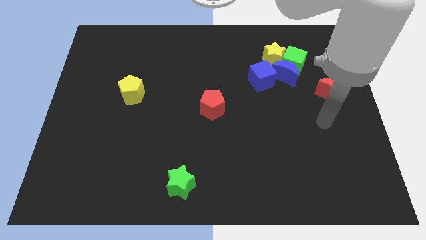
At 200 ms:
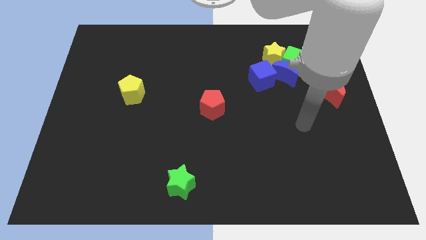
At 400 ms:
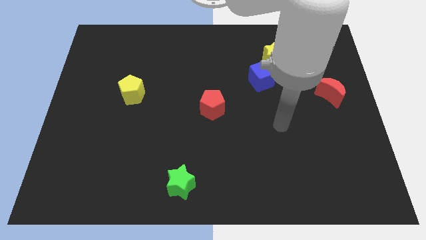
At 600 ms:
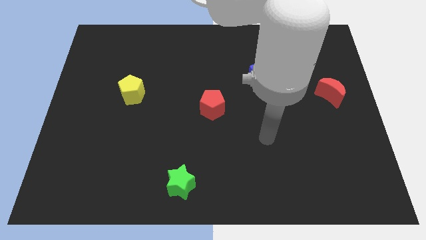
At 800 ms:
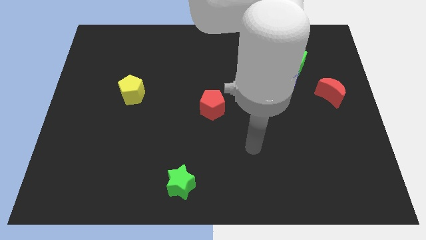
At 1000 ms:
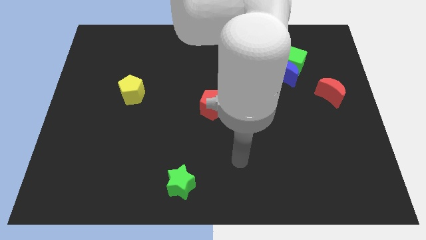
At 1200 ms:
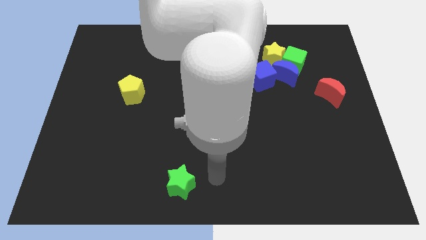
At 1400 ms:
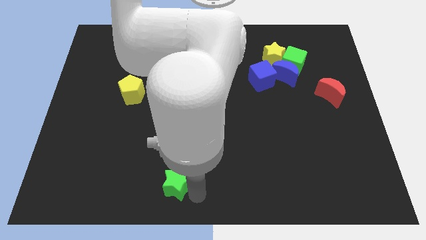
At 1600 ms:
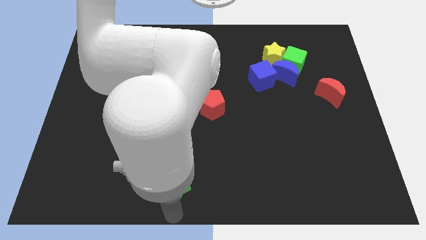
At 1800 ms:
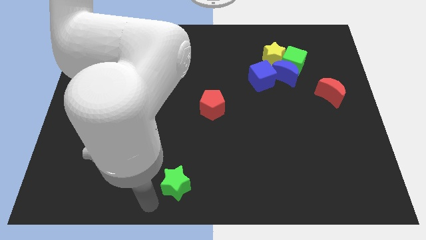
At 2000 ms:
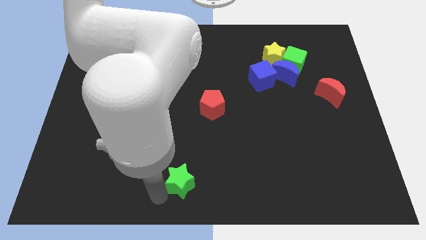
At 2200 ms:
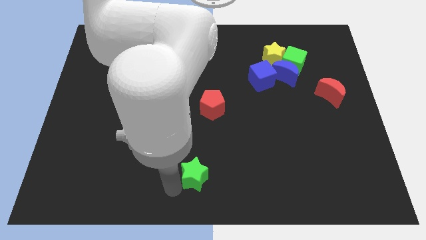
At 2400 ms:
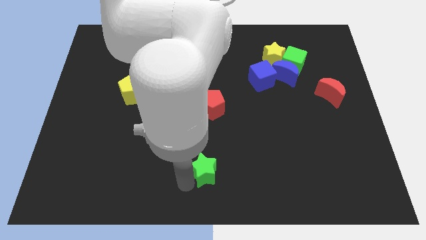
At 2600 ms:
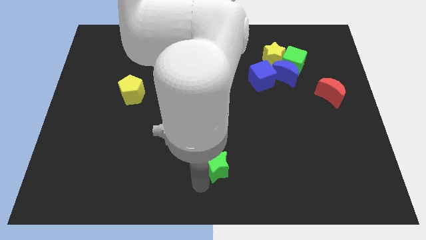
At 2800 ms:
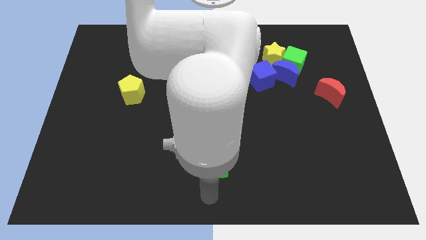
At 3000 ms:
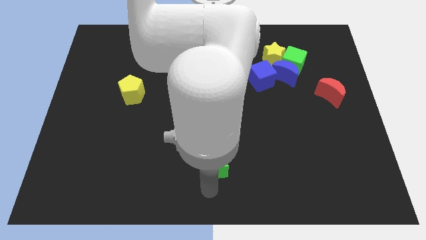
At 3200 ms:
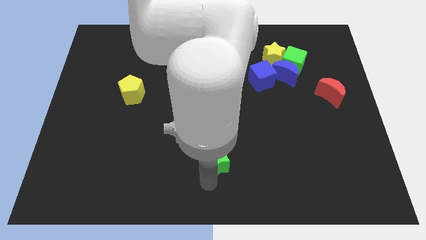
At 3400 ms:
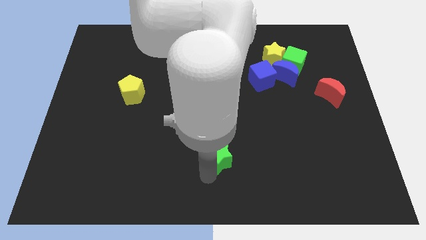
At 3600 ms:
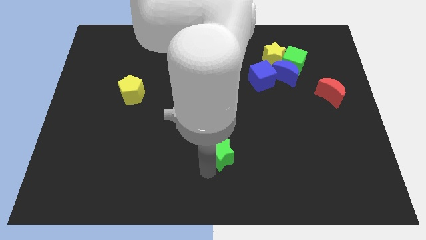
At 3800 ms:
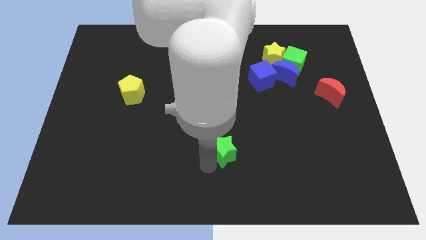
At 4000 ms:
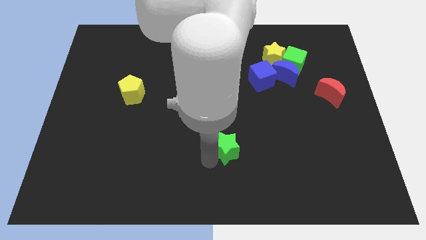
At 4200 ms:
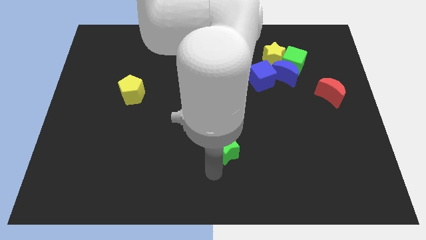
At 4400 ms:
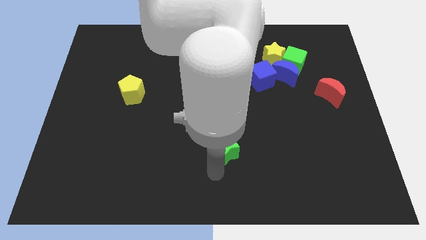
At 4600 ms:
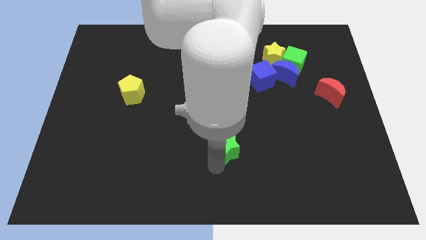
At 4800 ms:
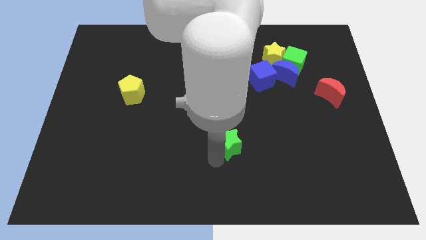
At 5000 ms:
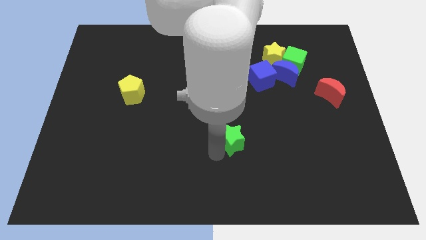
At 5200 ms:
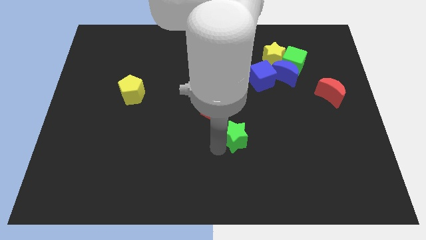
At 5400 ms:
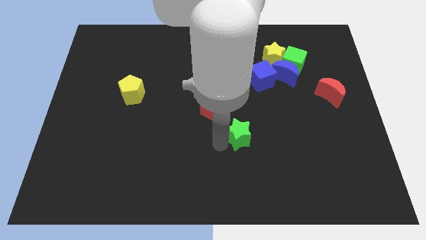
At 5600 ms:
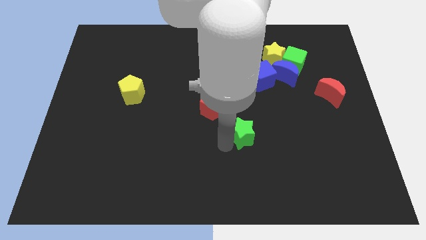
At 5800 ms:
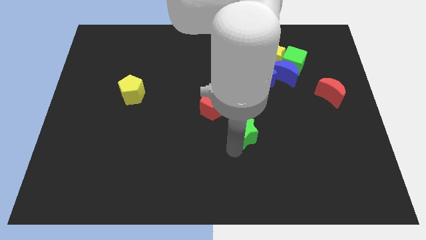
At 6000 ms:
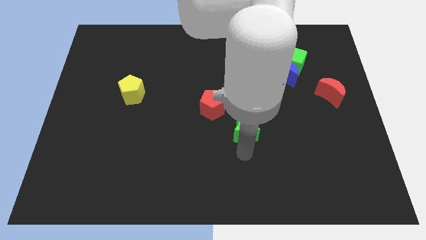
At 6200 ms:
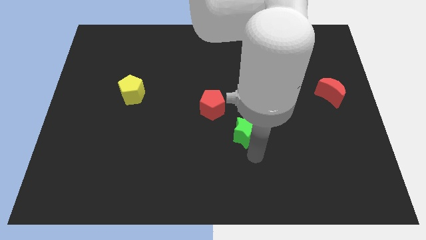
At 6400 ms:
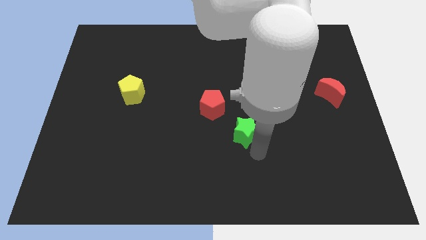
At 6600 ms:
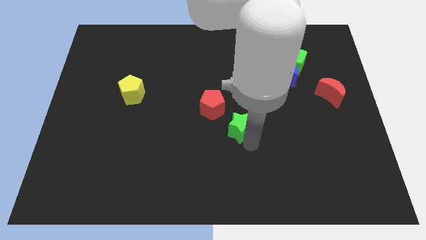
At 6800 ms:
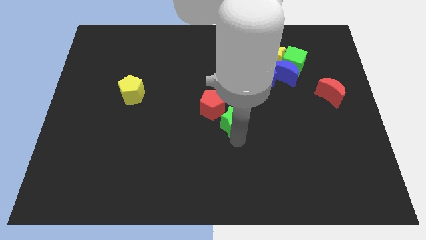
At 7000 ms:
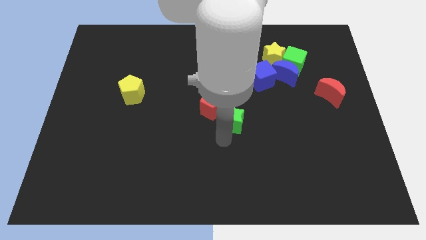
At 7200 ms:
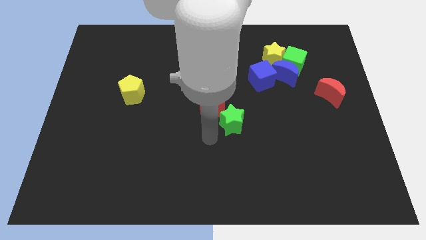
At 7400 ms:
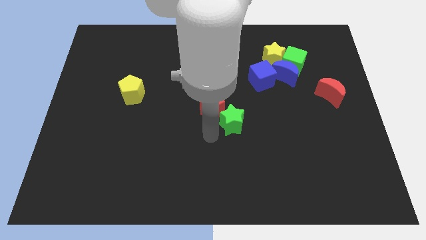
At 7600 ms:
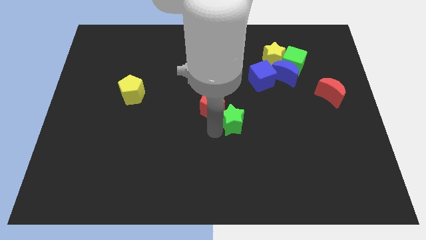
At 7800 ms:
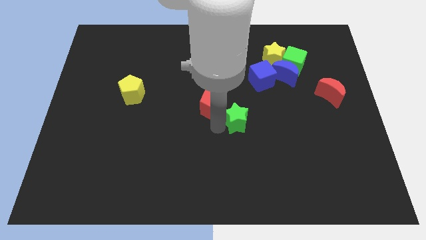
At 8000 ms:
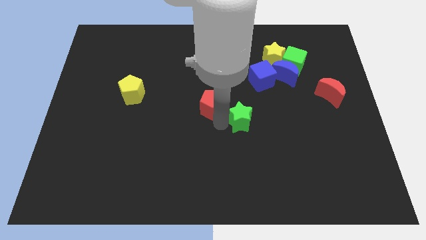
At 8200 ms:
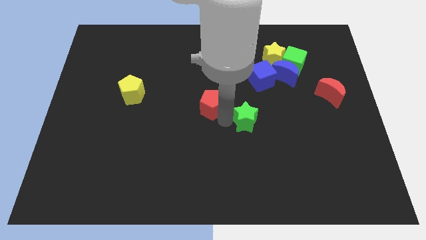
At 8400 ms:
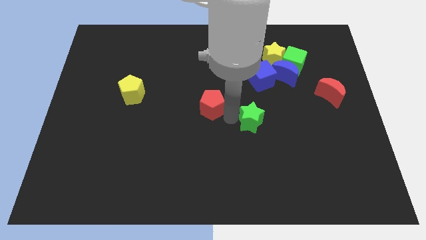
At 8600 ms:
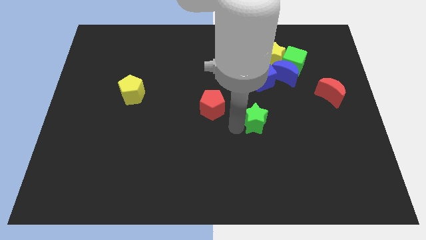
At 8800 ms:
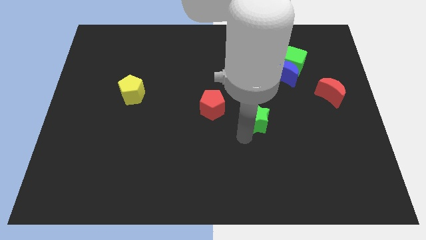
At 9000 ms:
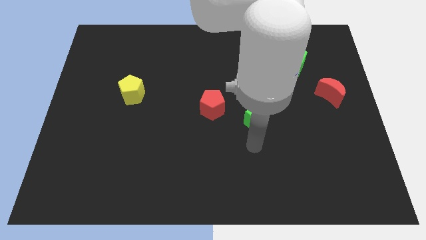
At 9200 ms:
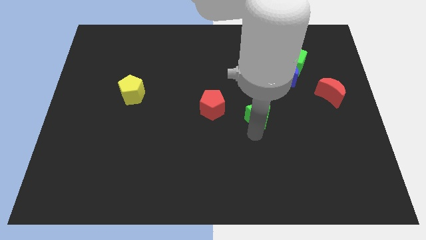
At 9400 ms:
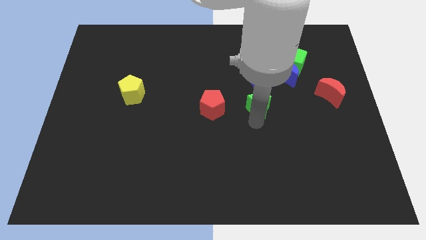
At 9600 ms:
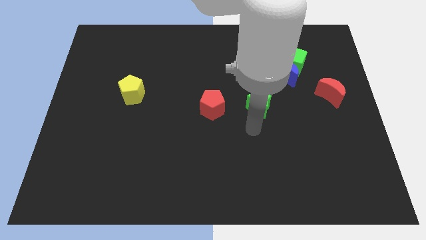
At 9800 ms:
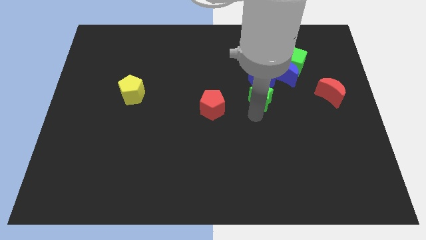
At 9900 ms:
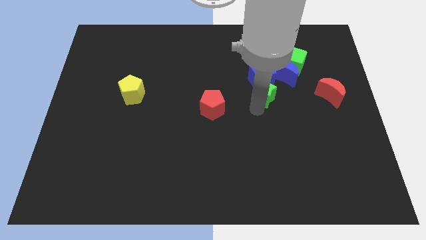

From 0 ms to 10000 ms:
move the green star towards the blue cube

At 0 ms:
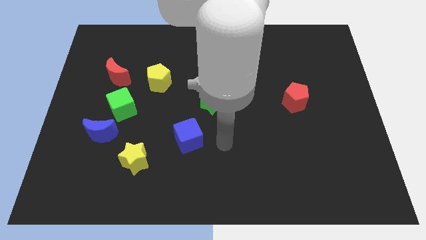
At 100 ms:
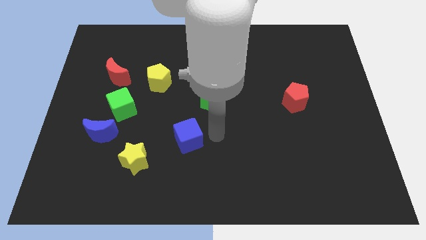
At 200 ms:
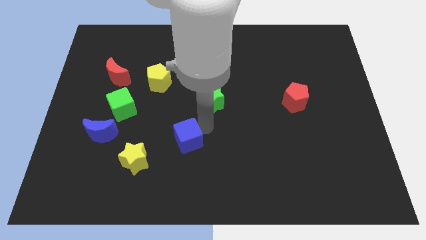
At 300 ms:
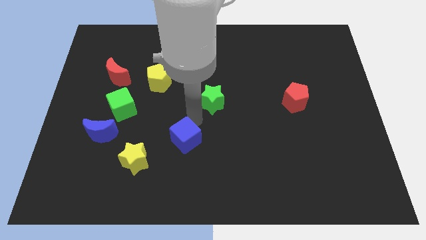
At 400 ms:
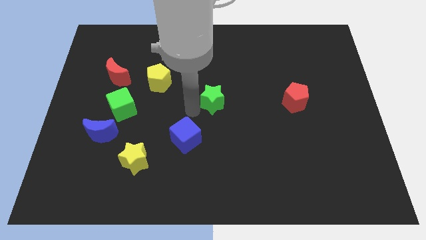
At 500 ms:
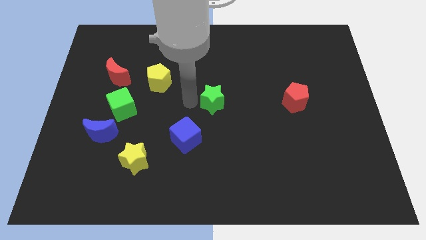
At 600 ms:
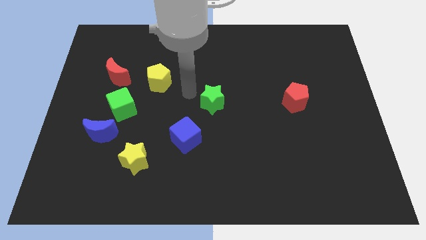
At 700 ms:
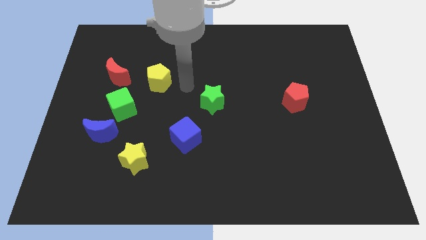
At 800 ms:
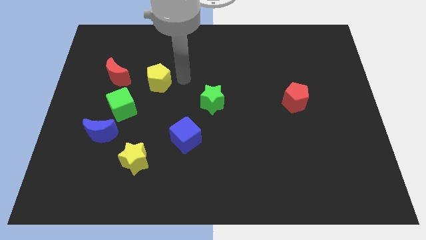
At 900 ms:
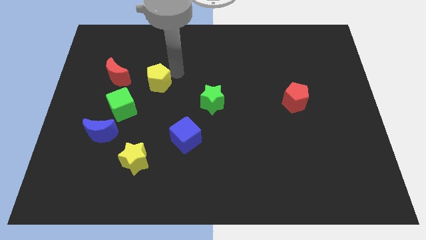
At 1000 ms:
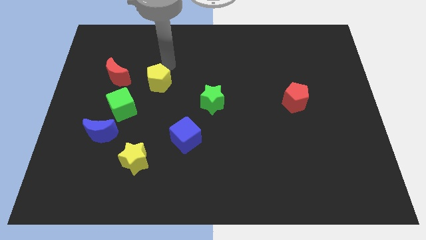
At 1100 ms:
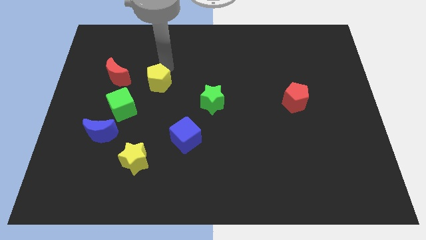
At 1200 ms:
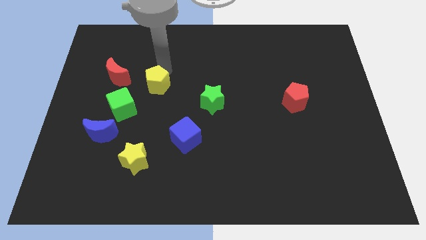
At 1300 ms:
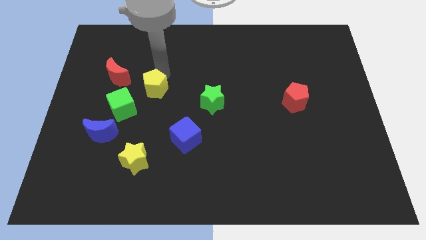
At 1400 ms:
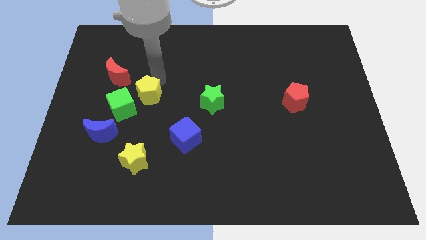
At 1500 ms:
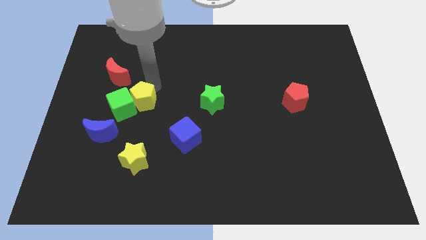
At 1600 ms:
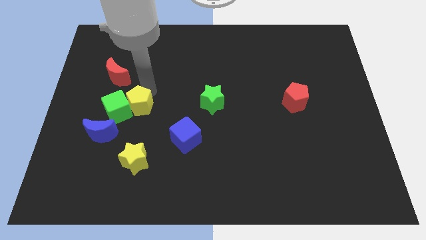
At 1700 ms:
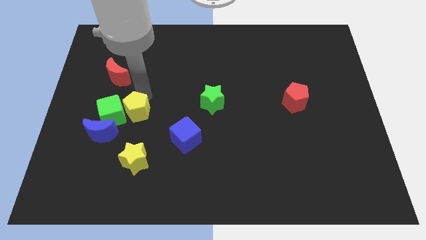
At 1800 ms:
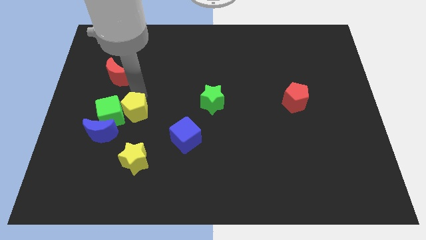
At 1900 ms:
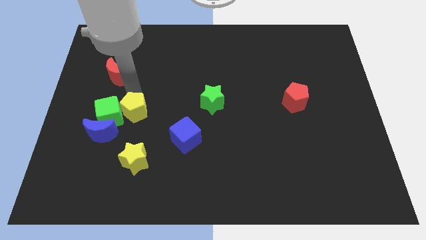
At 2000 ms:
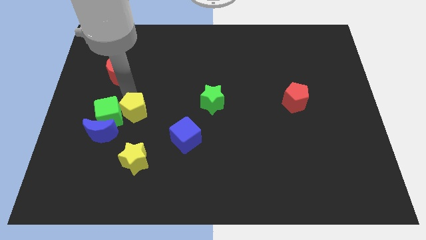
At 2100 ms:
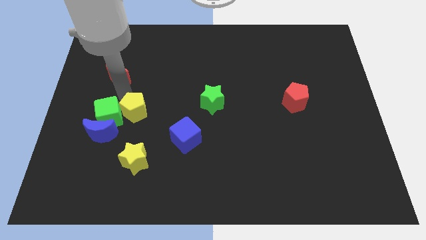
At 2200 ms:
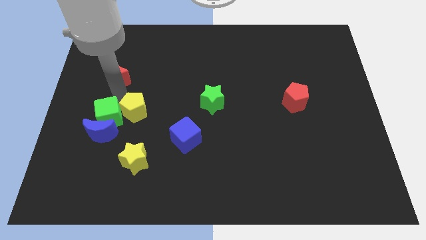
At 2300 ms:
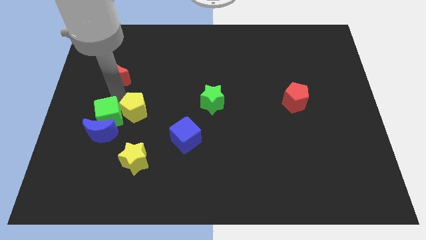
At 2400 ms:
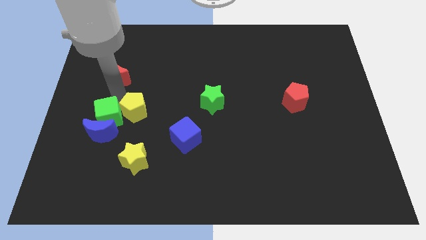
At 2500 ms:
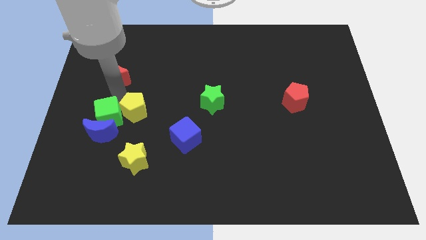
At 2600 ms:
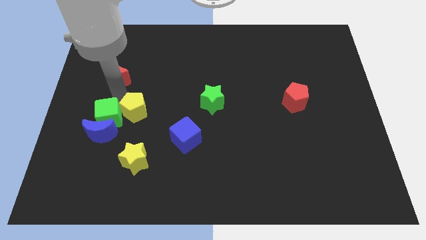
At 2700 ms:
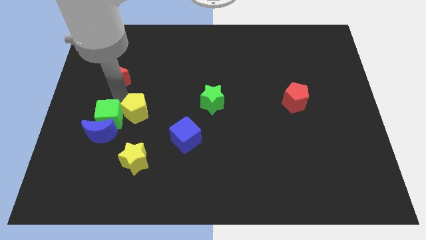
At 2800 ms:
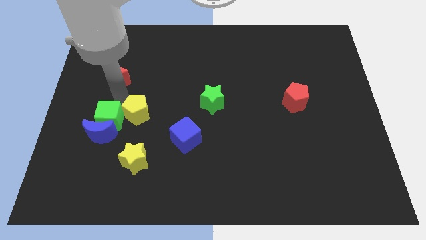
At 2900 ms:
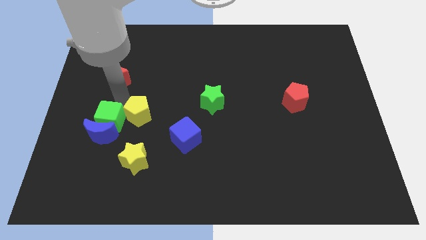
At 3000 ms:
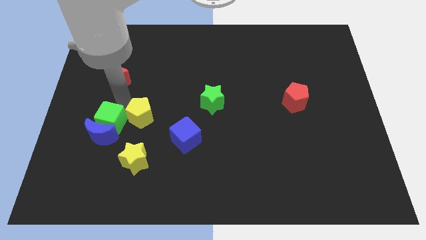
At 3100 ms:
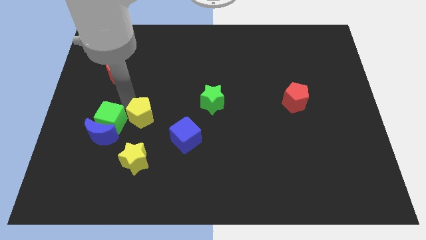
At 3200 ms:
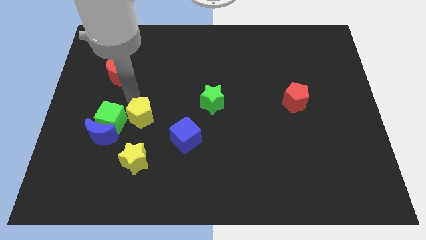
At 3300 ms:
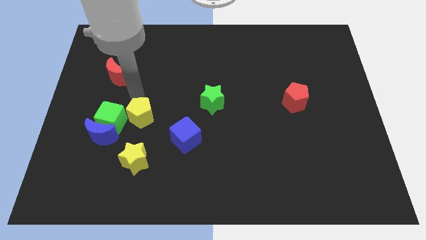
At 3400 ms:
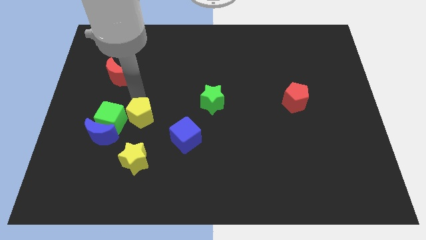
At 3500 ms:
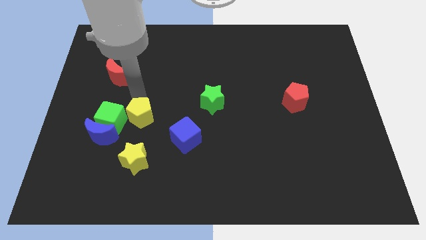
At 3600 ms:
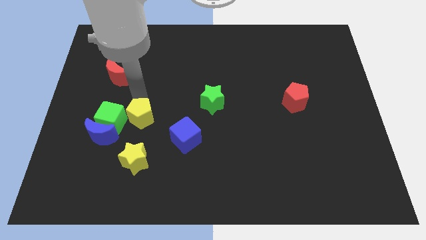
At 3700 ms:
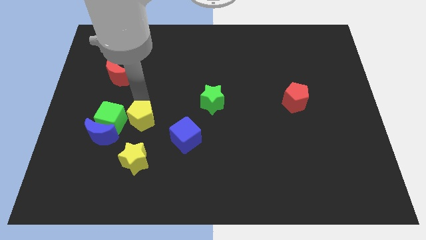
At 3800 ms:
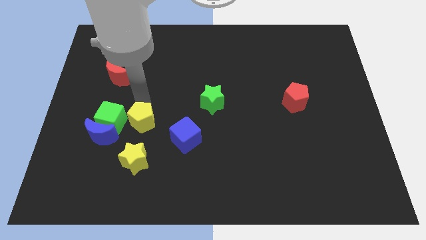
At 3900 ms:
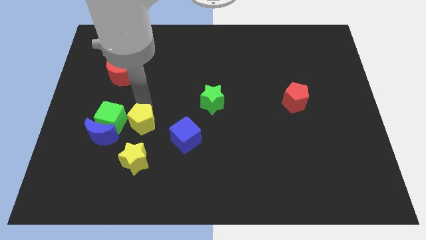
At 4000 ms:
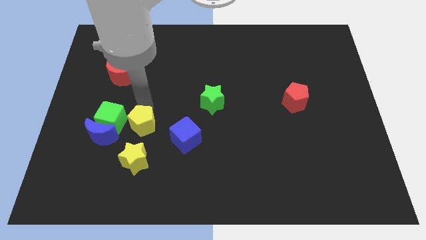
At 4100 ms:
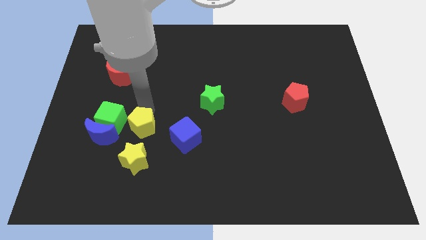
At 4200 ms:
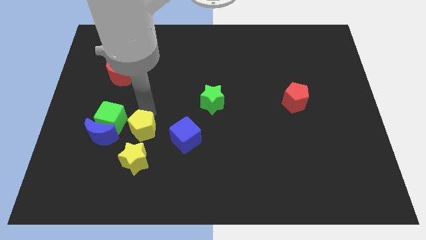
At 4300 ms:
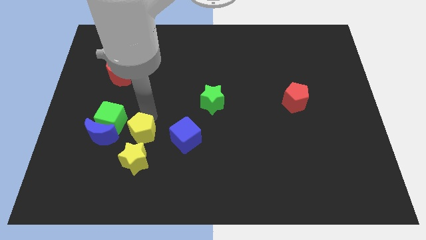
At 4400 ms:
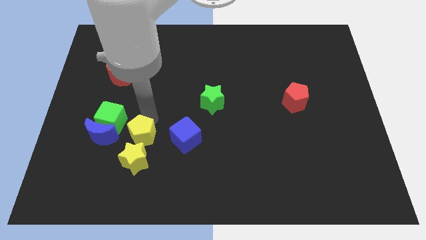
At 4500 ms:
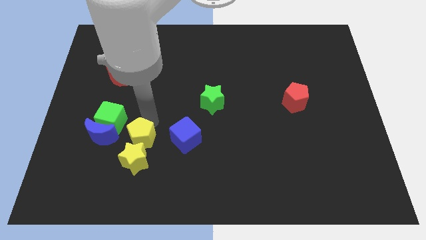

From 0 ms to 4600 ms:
slide the yellow pentagon close to the yellow star
